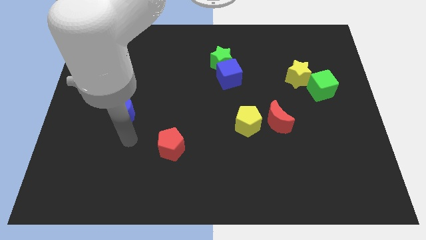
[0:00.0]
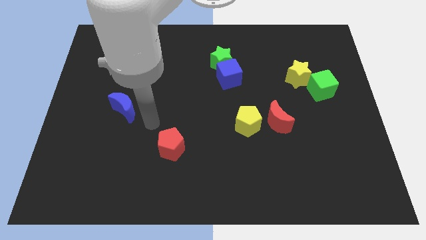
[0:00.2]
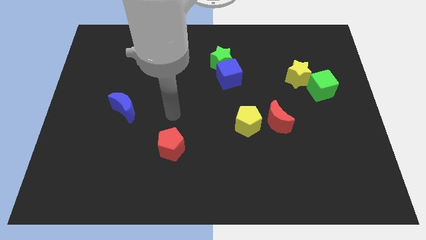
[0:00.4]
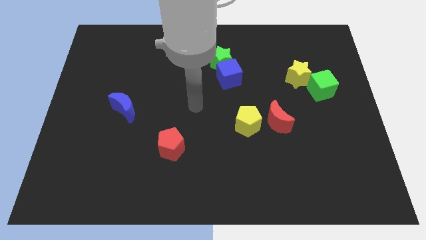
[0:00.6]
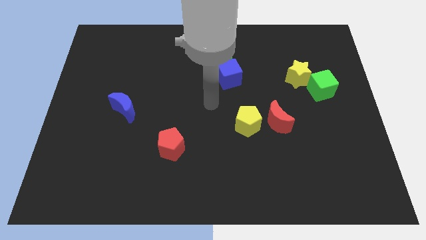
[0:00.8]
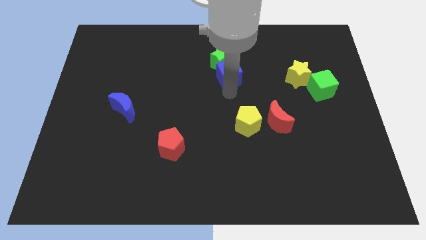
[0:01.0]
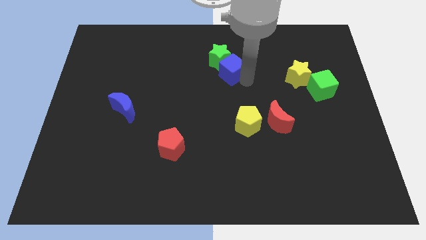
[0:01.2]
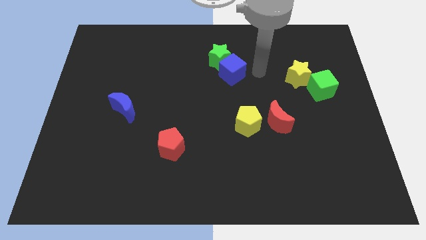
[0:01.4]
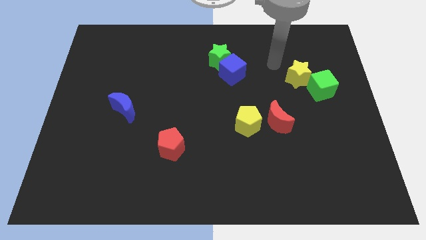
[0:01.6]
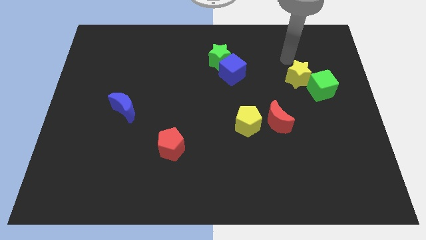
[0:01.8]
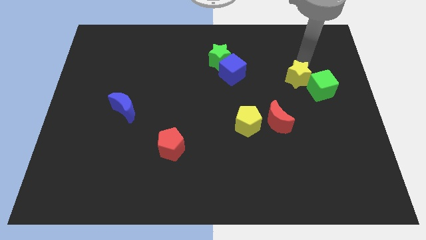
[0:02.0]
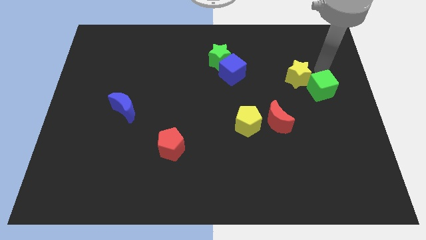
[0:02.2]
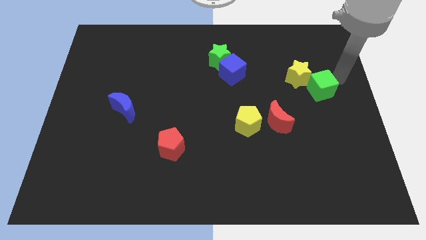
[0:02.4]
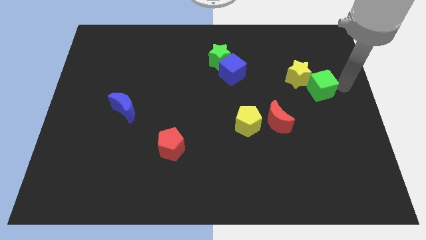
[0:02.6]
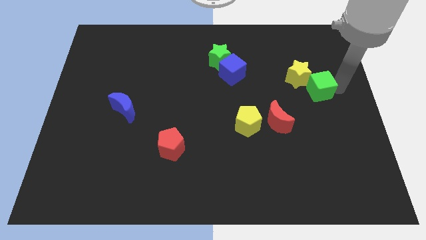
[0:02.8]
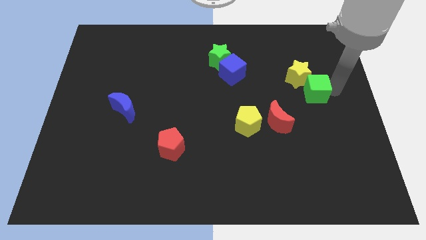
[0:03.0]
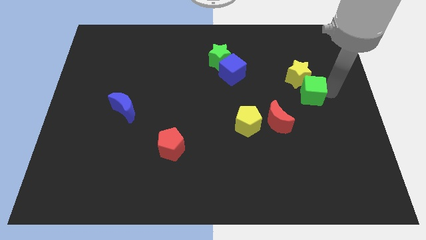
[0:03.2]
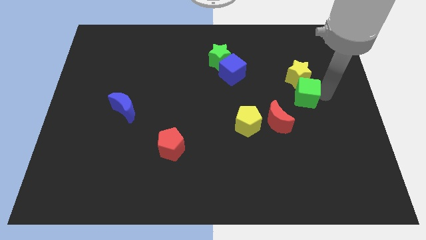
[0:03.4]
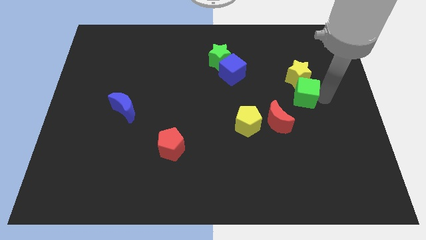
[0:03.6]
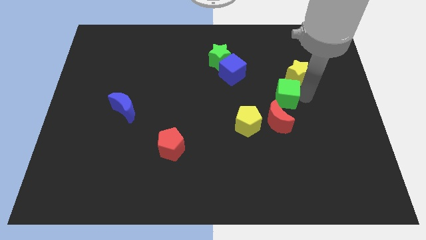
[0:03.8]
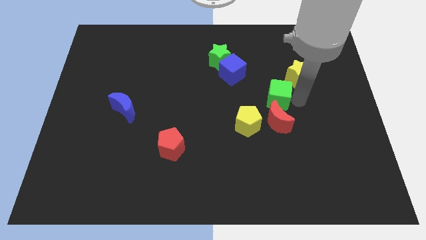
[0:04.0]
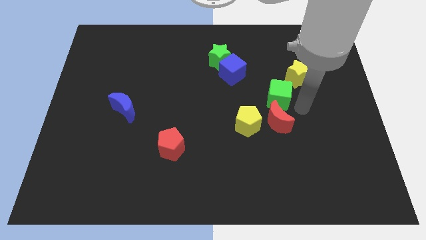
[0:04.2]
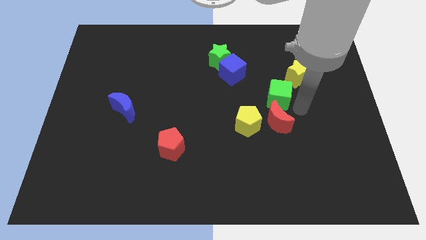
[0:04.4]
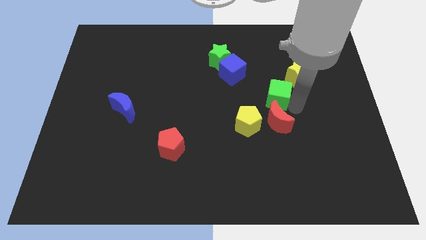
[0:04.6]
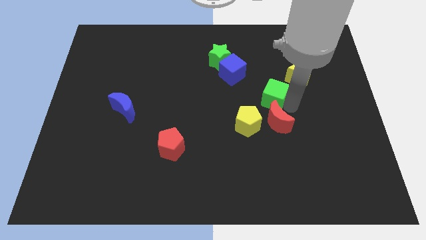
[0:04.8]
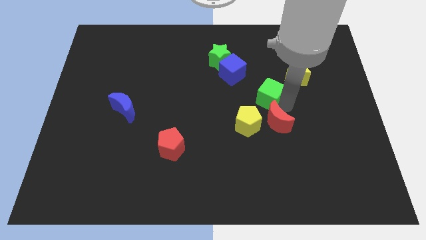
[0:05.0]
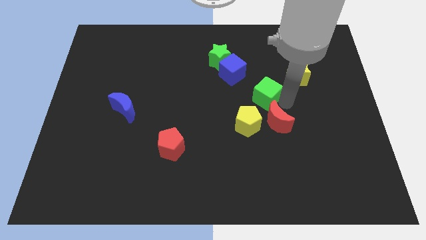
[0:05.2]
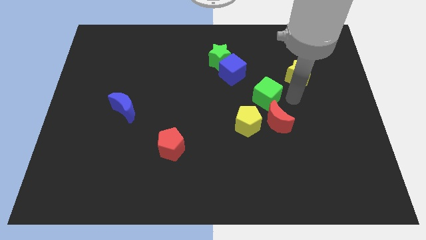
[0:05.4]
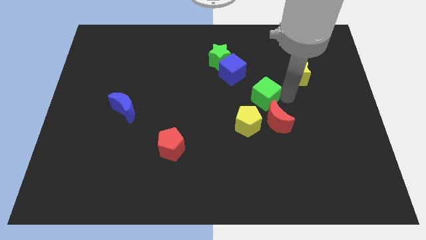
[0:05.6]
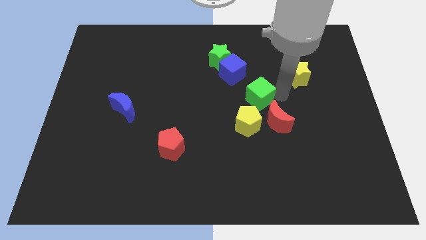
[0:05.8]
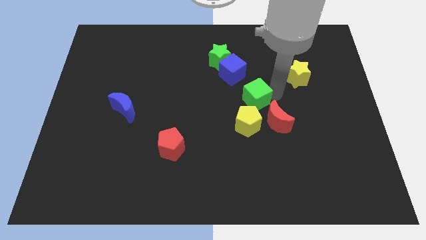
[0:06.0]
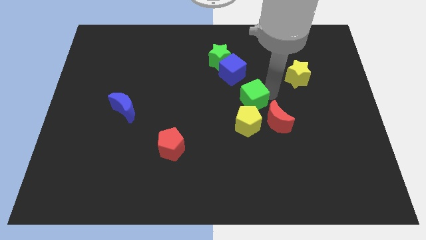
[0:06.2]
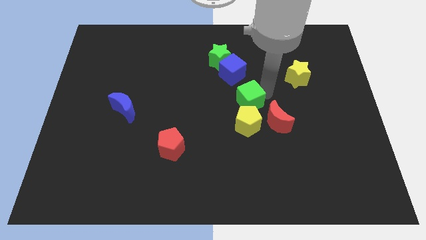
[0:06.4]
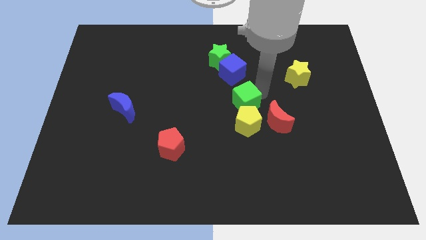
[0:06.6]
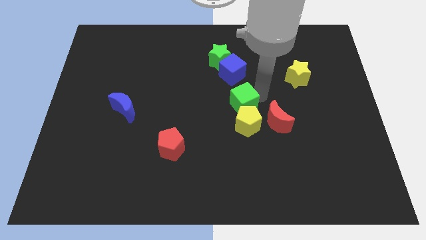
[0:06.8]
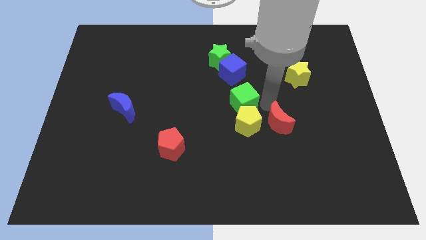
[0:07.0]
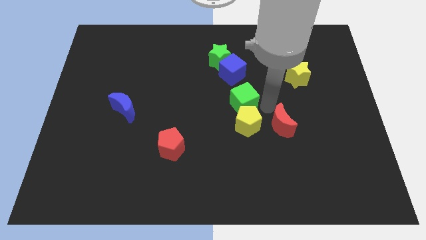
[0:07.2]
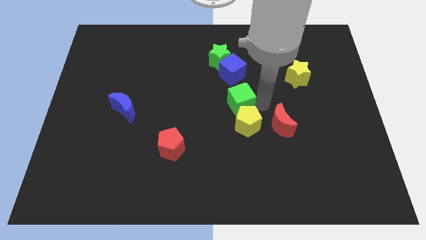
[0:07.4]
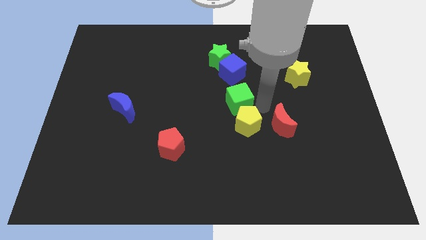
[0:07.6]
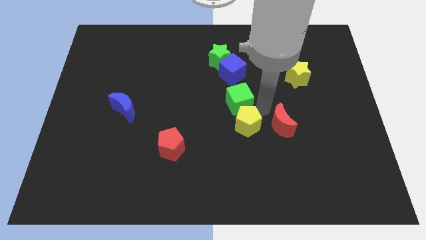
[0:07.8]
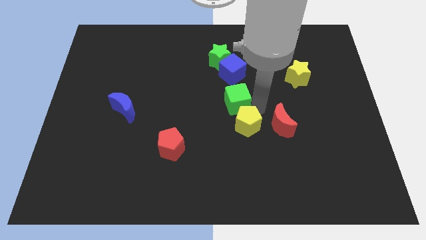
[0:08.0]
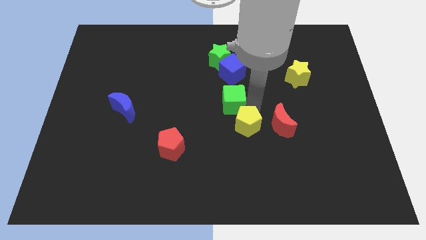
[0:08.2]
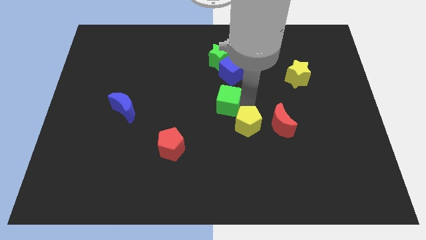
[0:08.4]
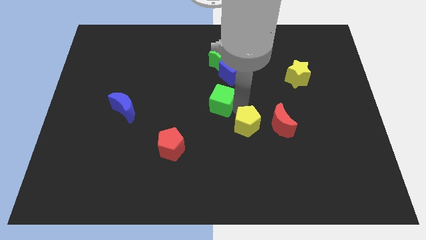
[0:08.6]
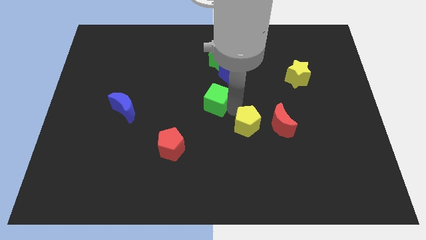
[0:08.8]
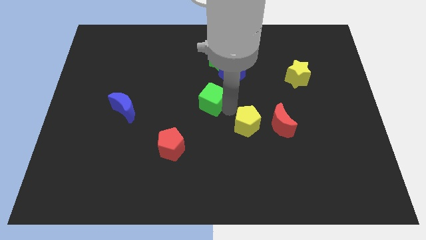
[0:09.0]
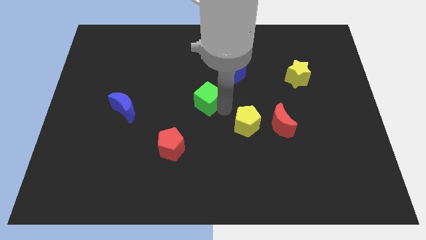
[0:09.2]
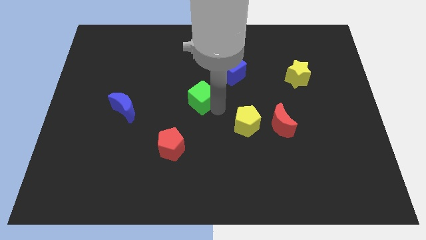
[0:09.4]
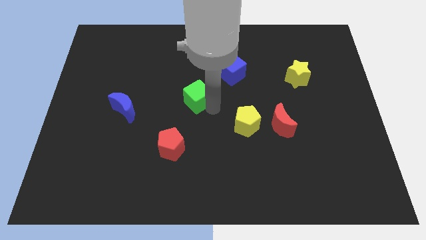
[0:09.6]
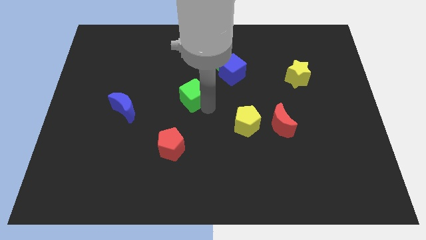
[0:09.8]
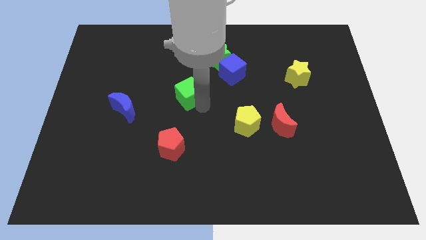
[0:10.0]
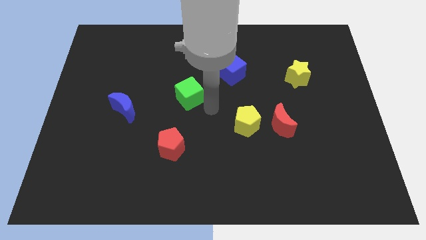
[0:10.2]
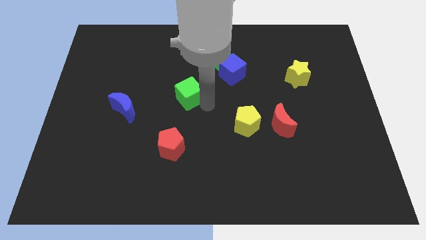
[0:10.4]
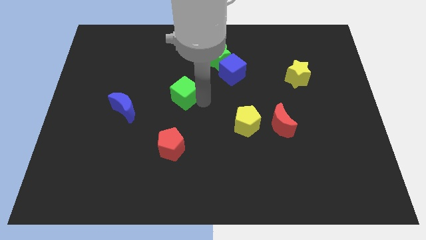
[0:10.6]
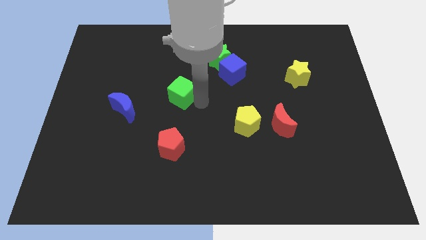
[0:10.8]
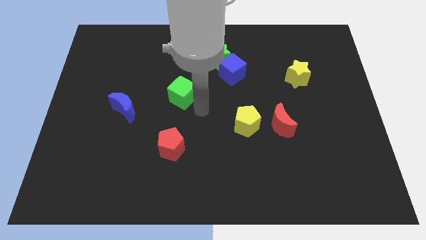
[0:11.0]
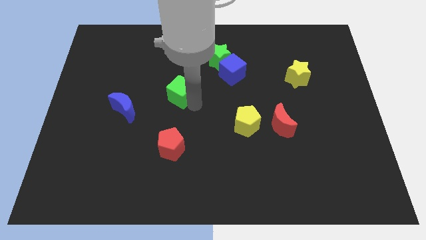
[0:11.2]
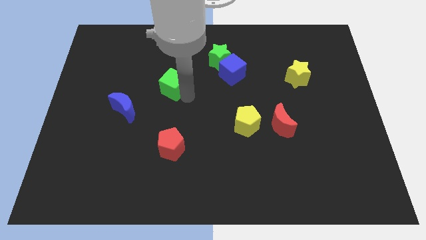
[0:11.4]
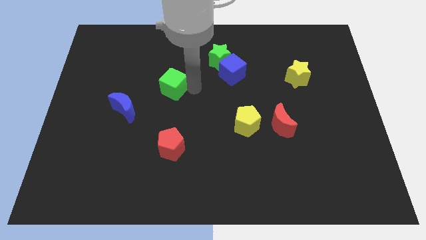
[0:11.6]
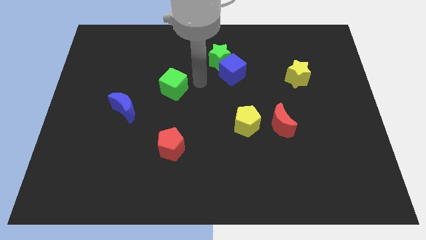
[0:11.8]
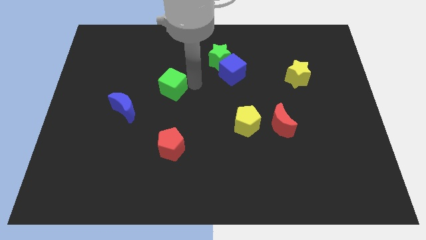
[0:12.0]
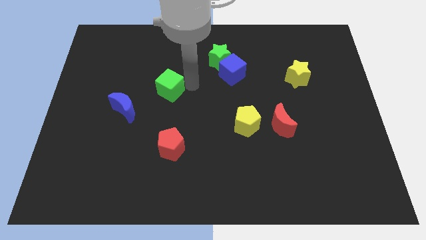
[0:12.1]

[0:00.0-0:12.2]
push the green cube to the top right side of the blue moon

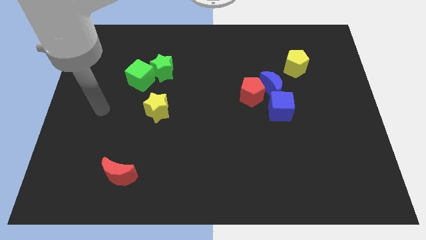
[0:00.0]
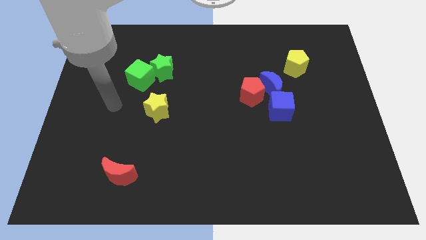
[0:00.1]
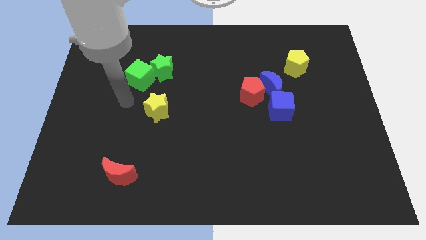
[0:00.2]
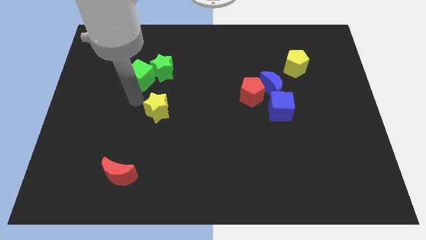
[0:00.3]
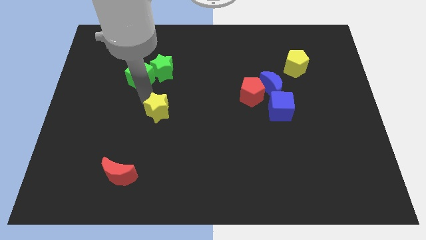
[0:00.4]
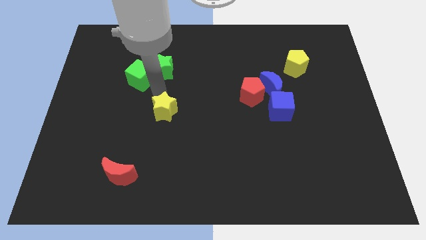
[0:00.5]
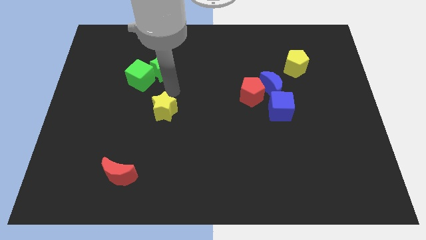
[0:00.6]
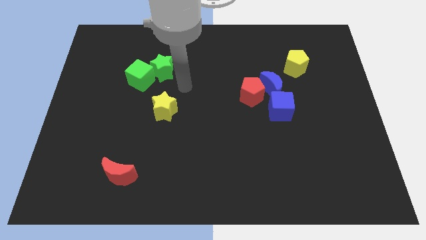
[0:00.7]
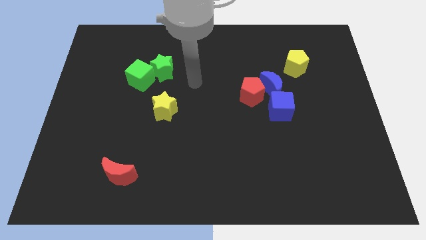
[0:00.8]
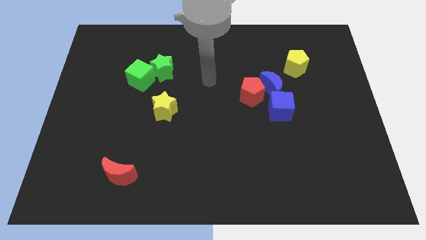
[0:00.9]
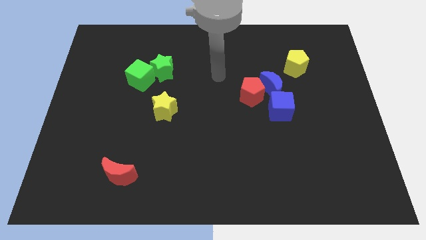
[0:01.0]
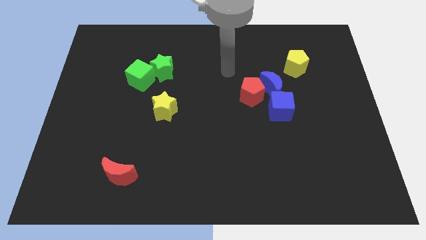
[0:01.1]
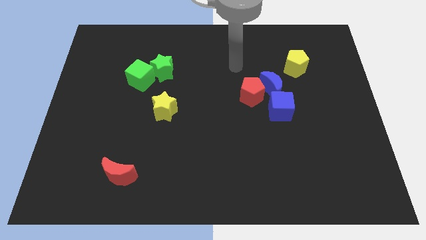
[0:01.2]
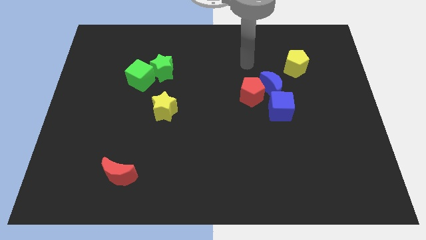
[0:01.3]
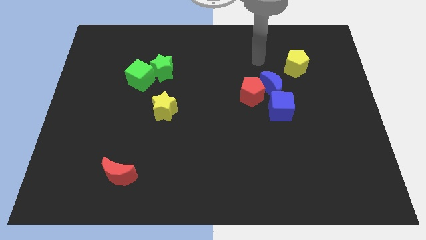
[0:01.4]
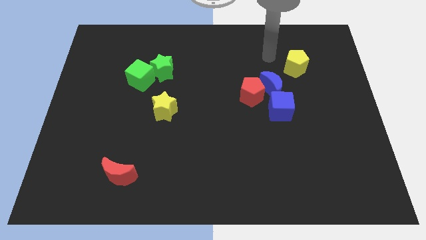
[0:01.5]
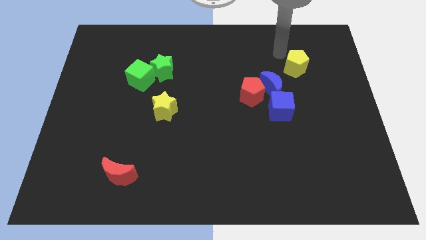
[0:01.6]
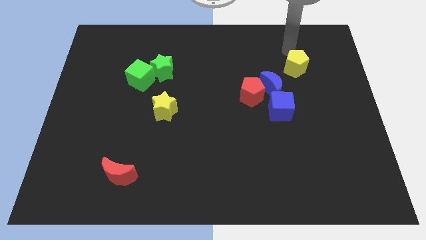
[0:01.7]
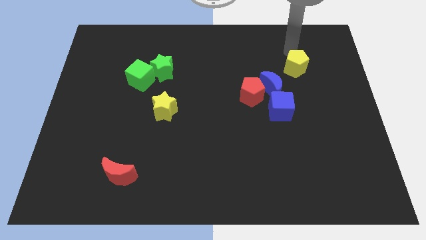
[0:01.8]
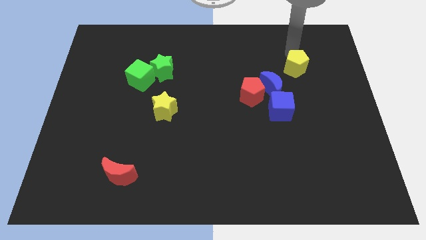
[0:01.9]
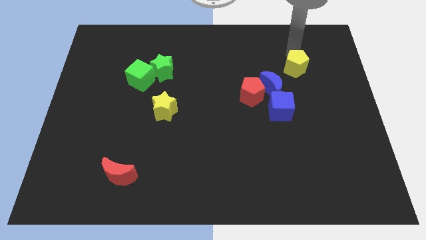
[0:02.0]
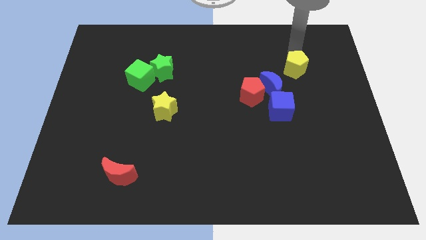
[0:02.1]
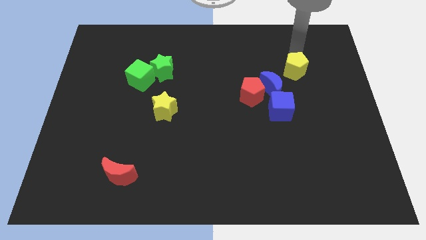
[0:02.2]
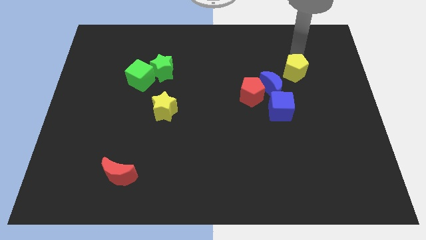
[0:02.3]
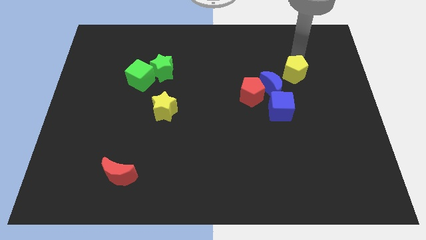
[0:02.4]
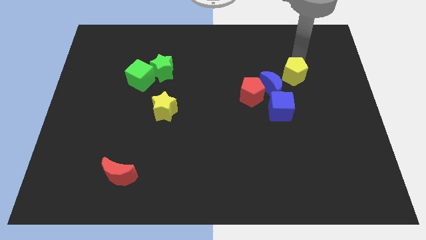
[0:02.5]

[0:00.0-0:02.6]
put the yellow pentagon to the right of the blue moon
